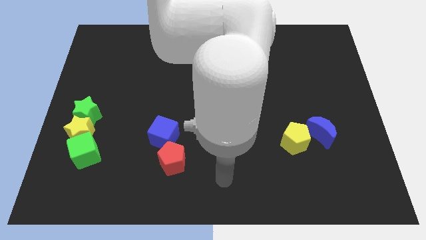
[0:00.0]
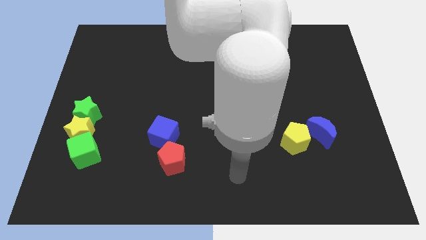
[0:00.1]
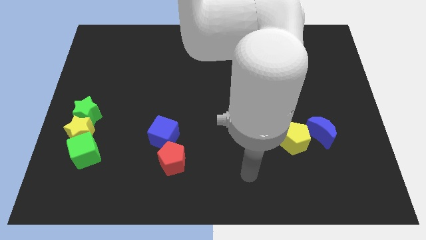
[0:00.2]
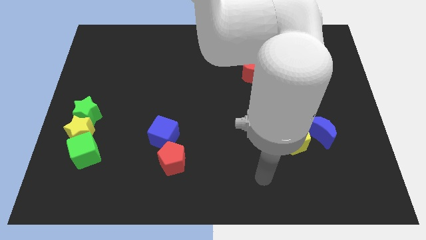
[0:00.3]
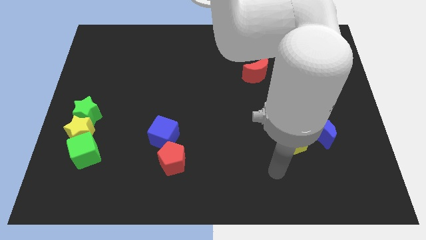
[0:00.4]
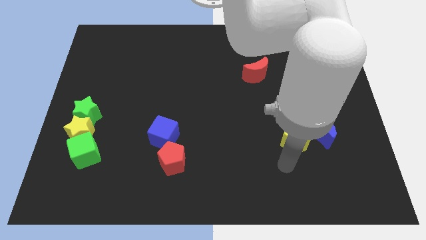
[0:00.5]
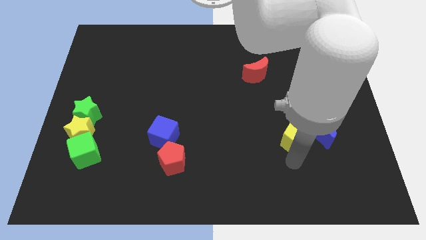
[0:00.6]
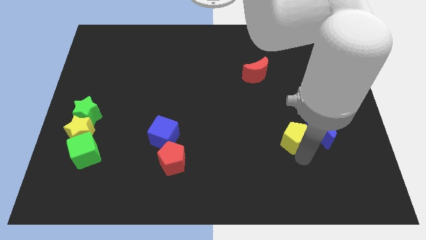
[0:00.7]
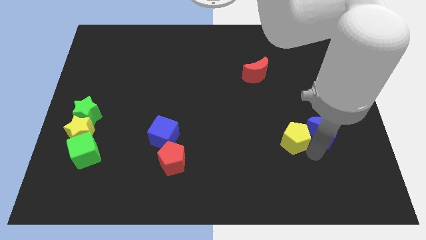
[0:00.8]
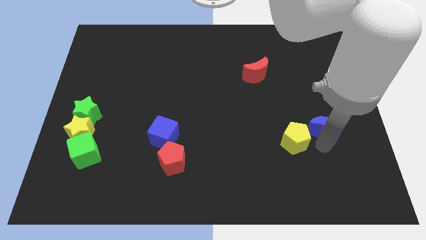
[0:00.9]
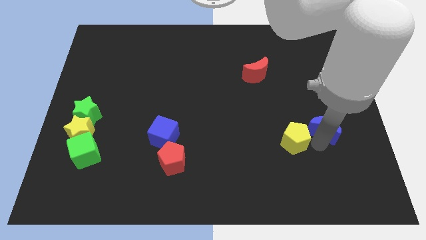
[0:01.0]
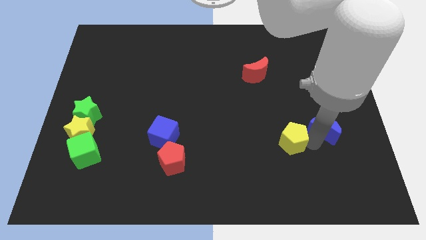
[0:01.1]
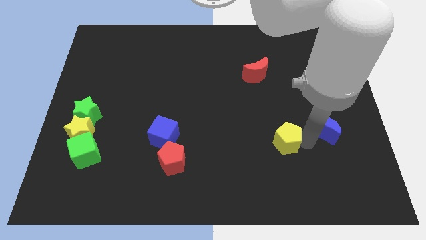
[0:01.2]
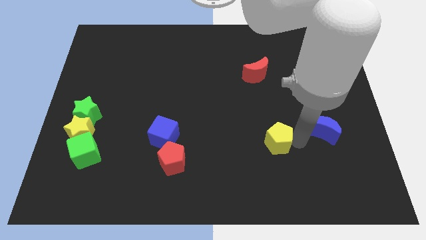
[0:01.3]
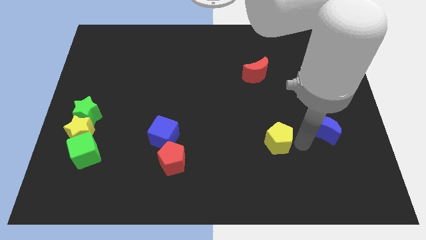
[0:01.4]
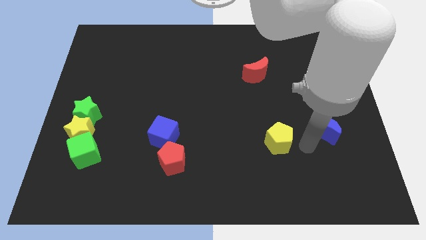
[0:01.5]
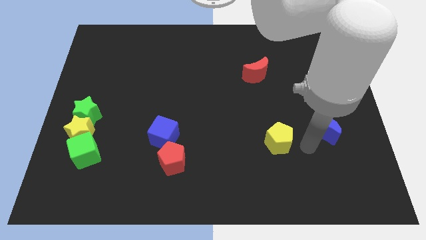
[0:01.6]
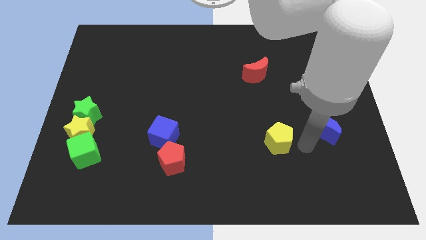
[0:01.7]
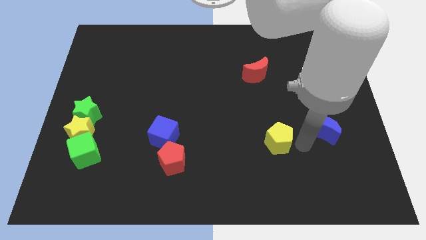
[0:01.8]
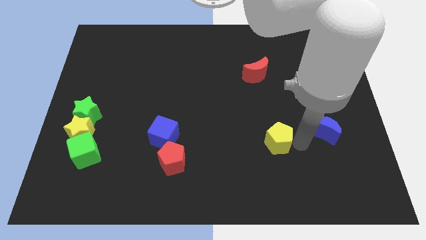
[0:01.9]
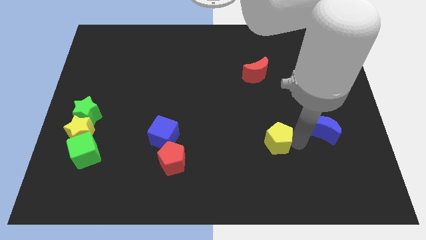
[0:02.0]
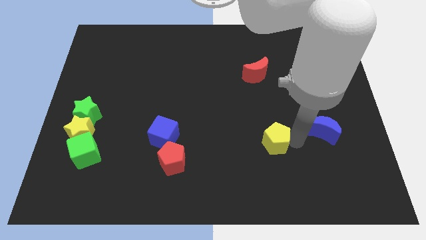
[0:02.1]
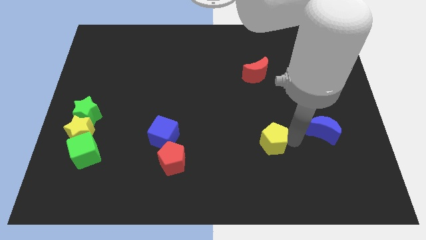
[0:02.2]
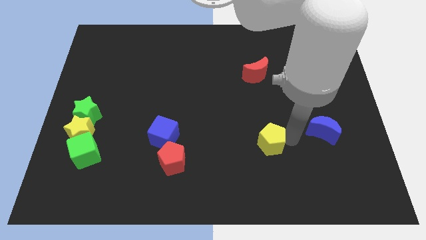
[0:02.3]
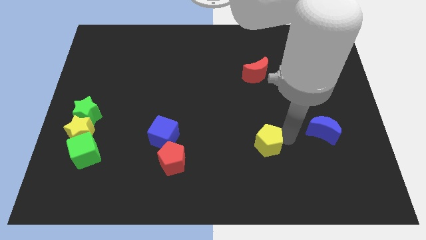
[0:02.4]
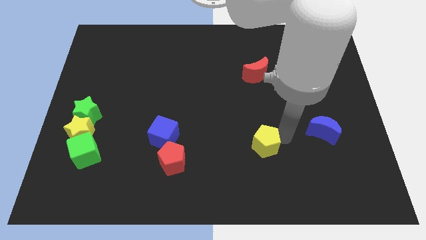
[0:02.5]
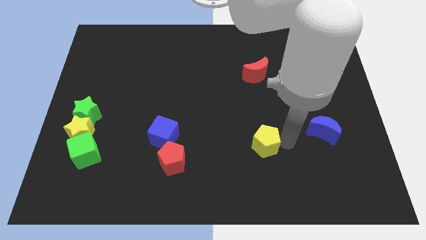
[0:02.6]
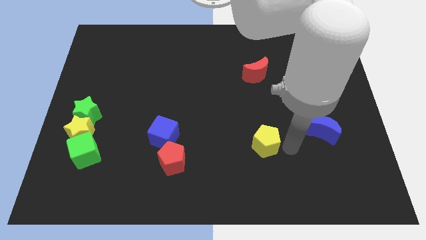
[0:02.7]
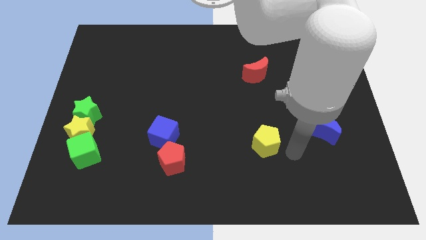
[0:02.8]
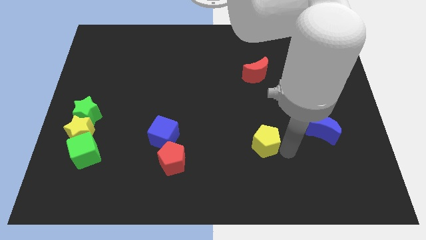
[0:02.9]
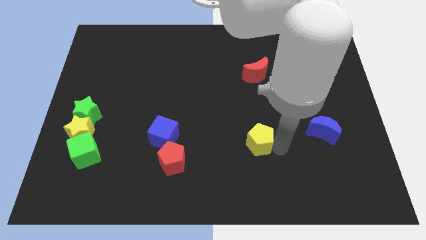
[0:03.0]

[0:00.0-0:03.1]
move the yellow pentagon to the left somewhat

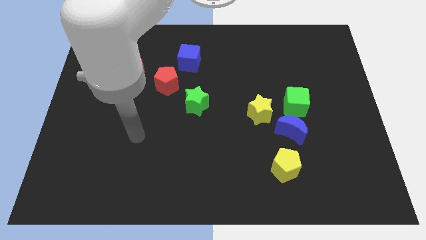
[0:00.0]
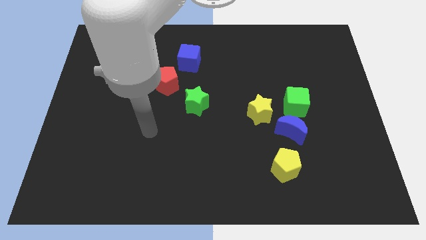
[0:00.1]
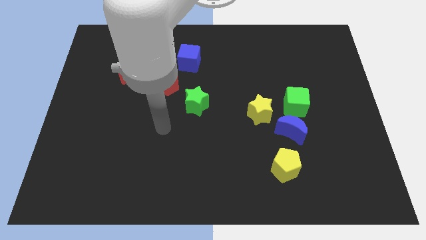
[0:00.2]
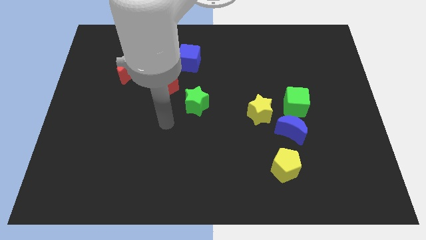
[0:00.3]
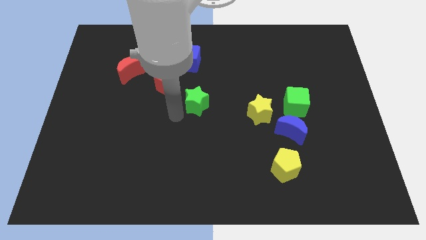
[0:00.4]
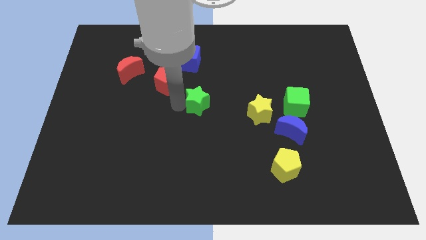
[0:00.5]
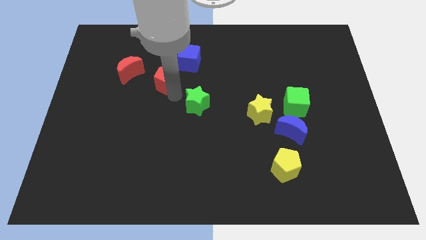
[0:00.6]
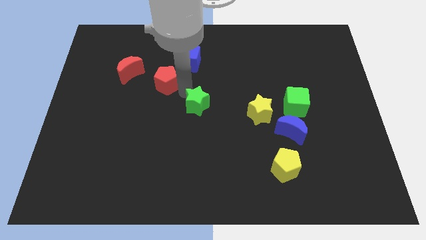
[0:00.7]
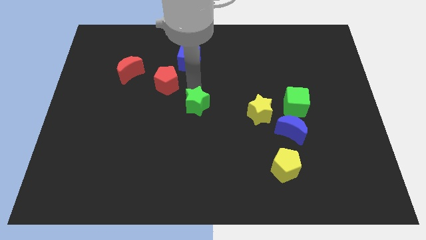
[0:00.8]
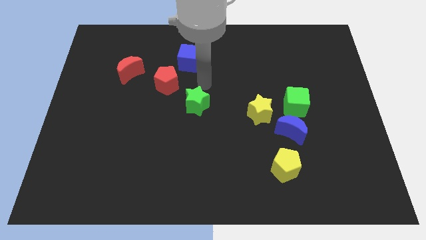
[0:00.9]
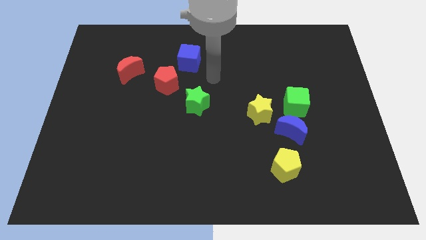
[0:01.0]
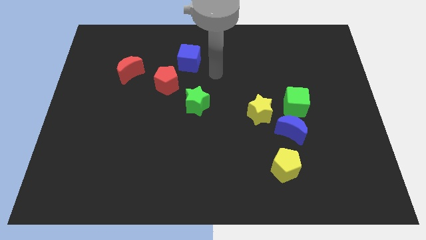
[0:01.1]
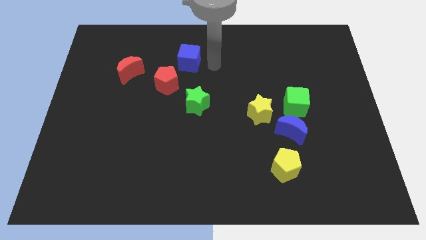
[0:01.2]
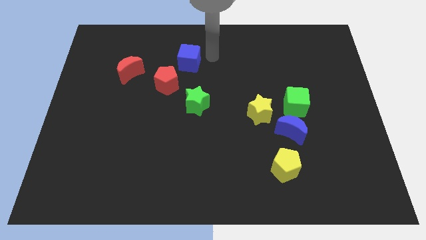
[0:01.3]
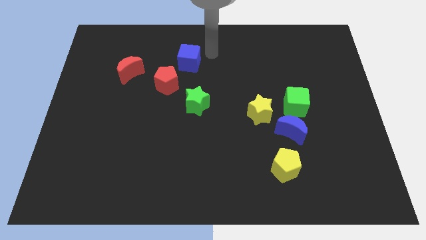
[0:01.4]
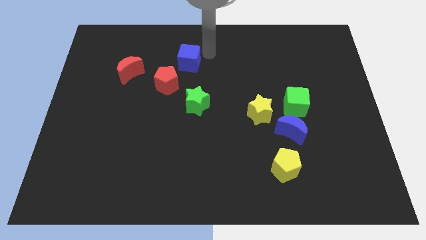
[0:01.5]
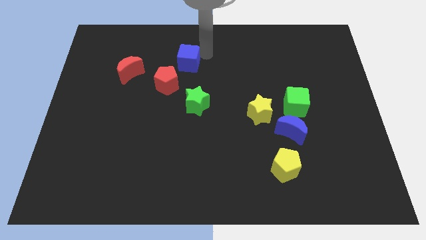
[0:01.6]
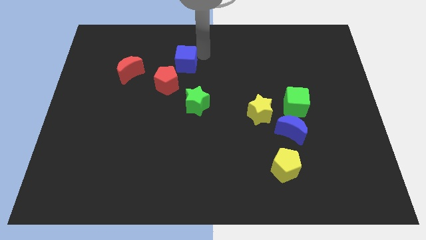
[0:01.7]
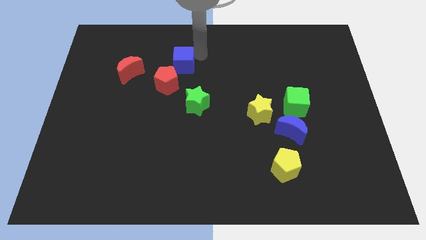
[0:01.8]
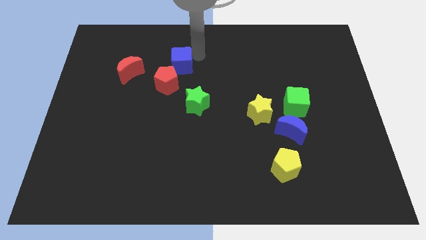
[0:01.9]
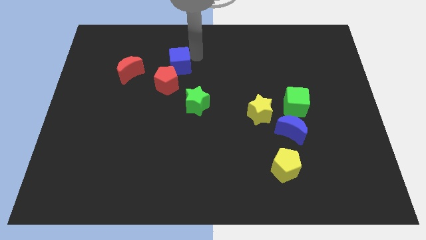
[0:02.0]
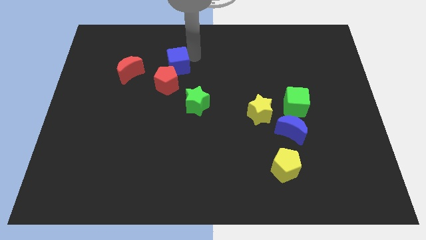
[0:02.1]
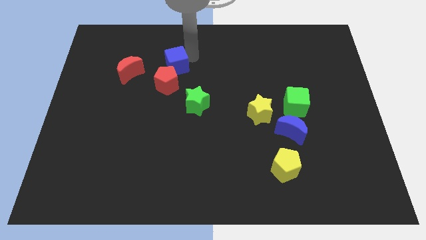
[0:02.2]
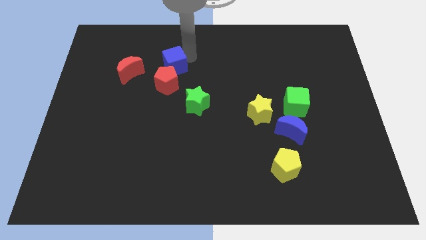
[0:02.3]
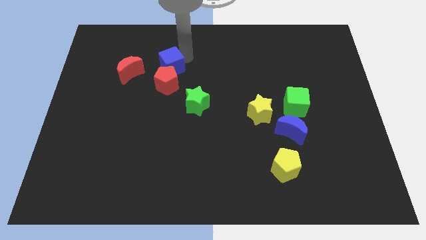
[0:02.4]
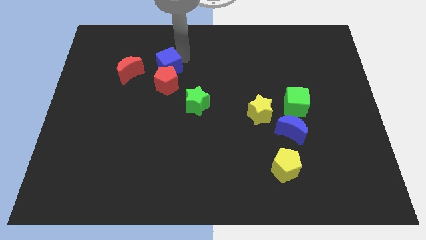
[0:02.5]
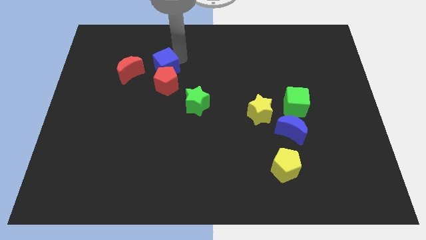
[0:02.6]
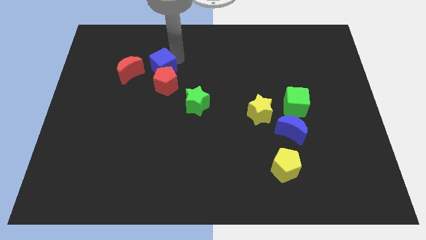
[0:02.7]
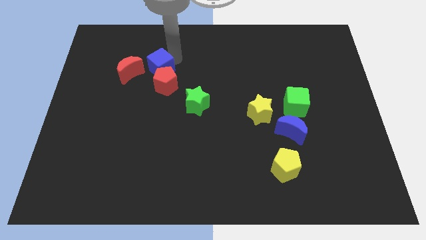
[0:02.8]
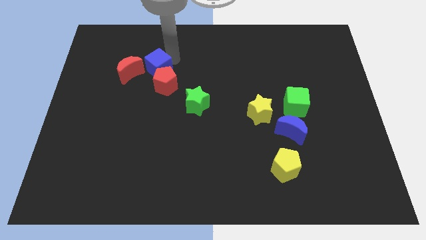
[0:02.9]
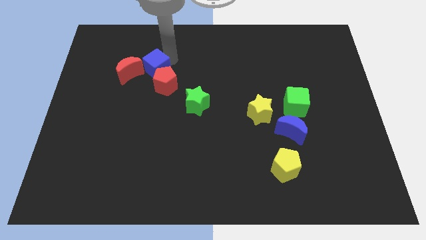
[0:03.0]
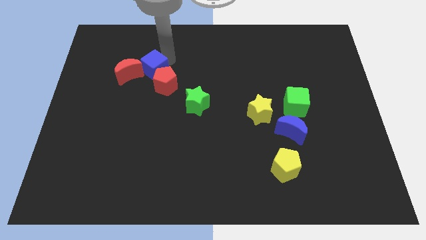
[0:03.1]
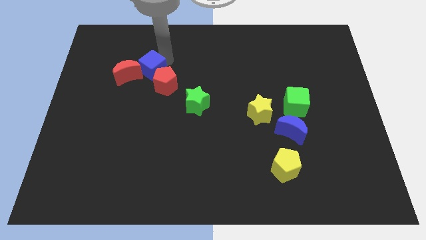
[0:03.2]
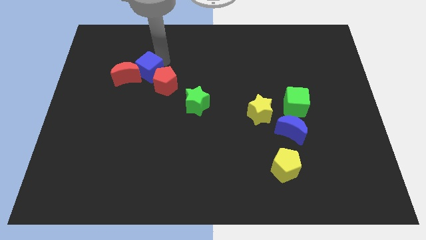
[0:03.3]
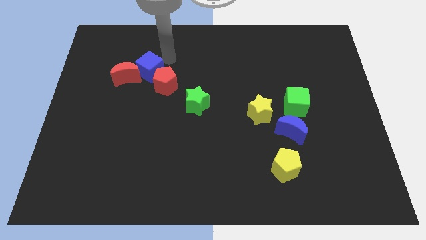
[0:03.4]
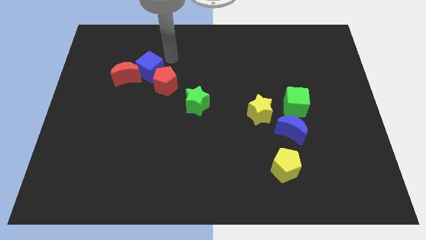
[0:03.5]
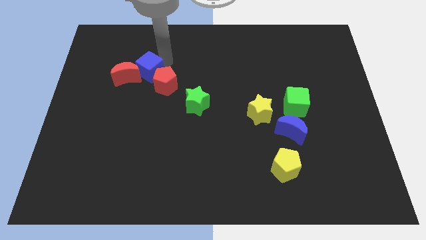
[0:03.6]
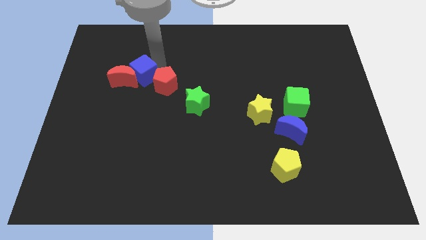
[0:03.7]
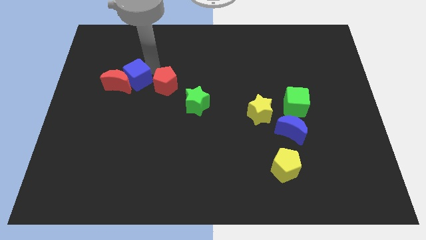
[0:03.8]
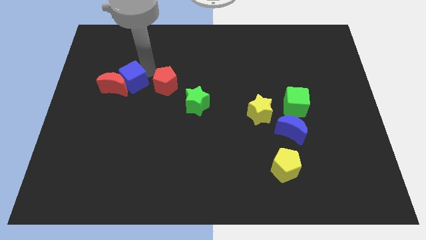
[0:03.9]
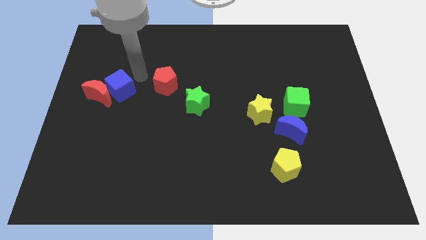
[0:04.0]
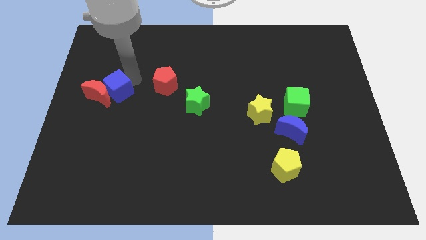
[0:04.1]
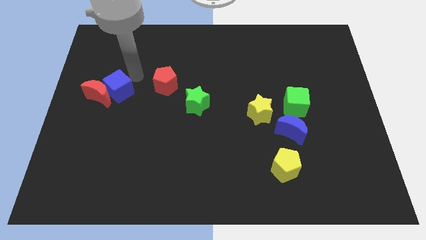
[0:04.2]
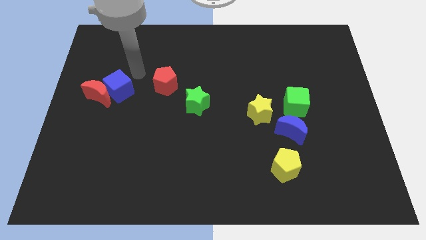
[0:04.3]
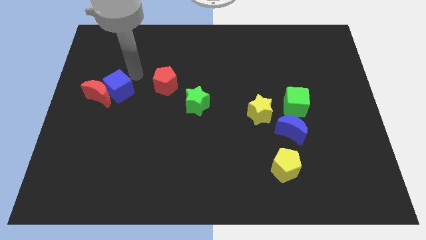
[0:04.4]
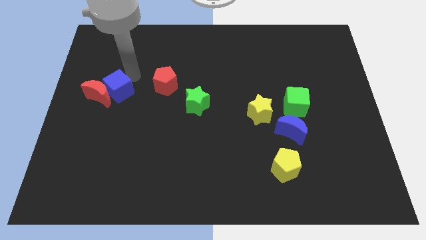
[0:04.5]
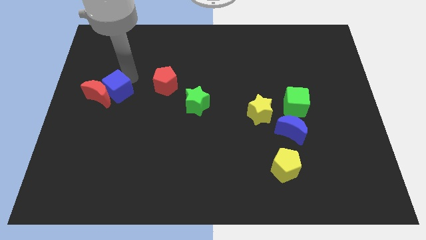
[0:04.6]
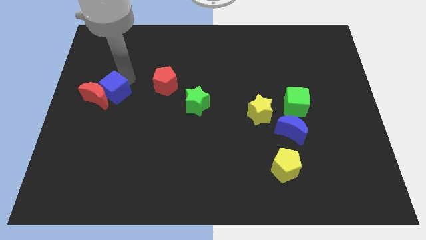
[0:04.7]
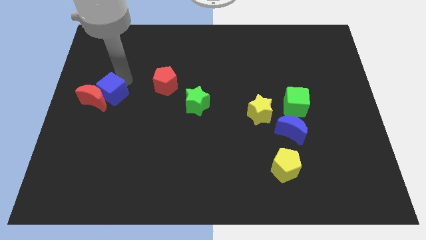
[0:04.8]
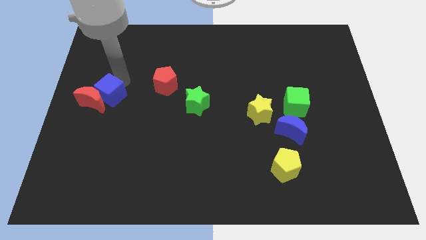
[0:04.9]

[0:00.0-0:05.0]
move the blue cube down and then left

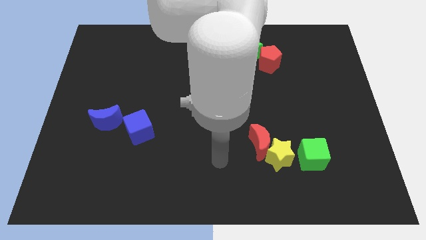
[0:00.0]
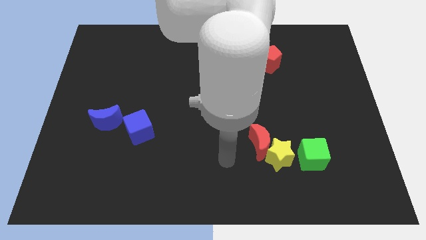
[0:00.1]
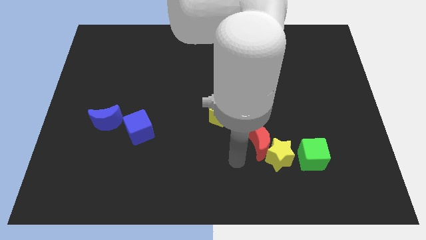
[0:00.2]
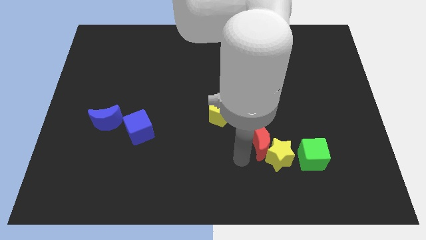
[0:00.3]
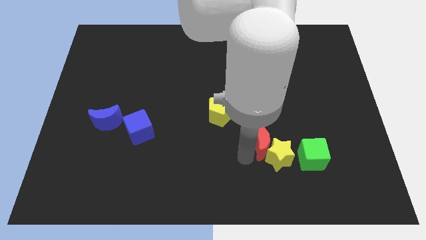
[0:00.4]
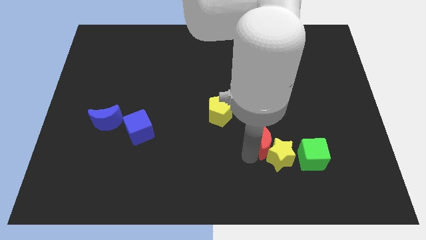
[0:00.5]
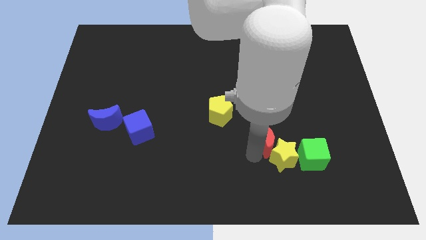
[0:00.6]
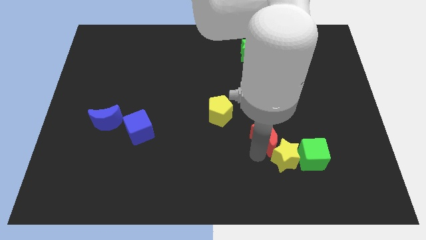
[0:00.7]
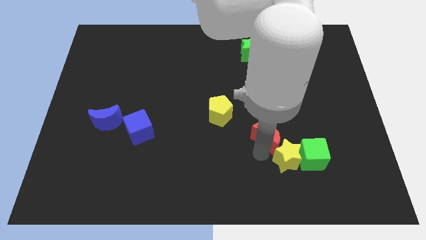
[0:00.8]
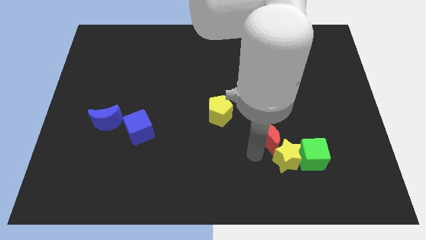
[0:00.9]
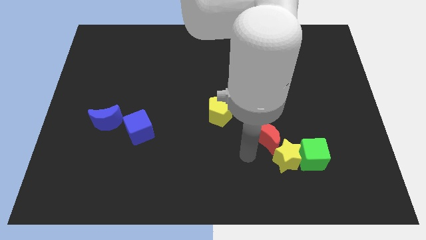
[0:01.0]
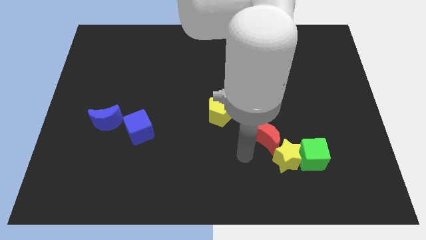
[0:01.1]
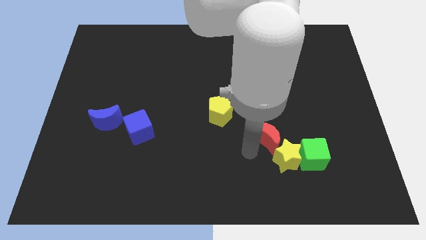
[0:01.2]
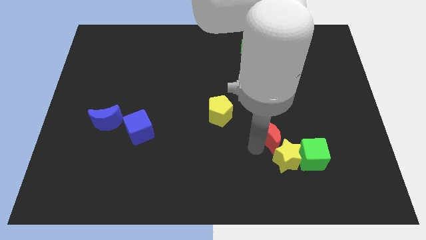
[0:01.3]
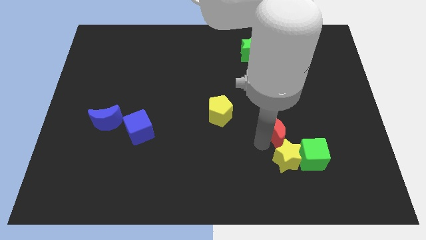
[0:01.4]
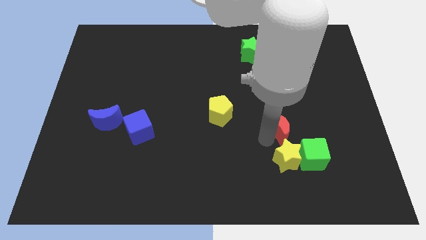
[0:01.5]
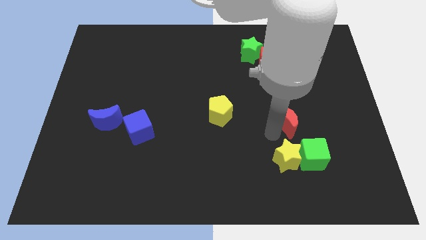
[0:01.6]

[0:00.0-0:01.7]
move the red moon slightly diagonally up and to the right
